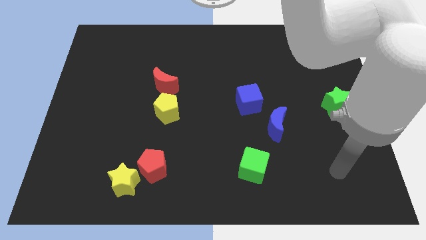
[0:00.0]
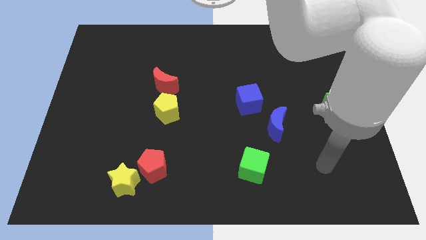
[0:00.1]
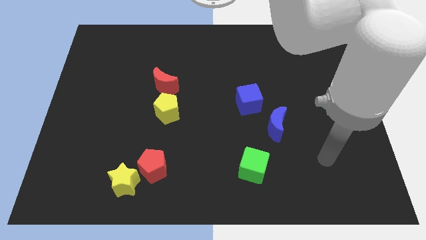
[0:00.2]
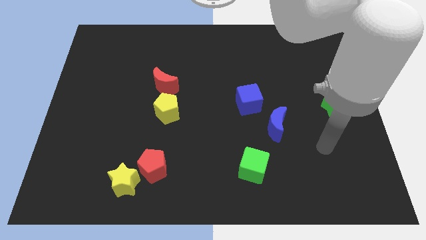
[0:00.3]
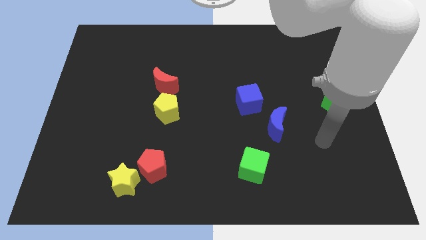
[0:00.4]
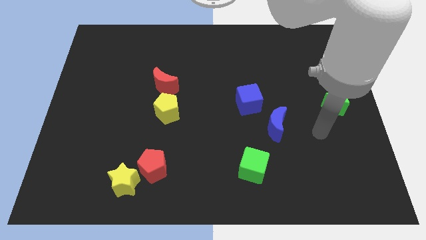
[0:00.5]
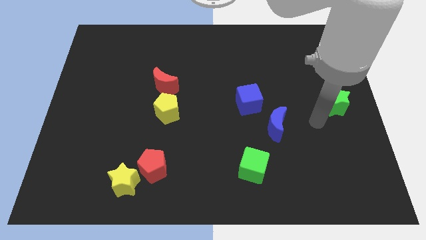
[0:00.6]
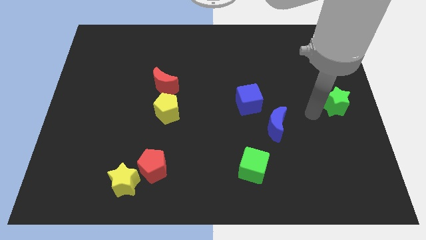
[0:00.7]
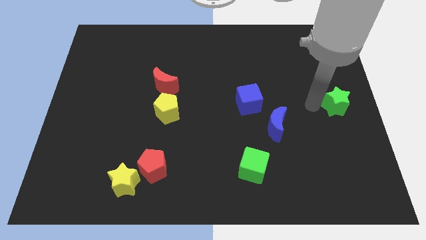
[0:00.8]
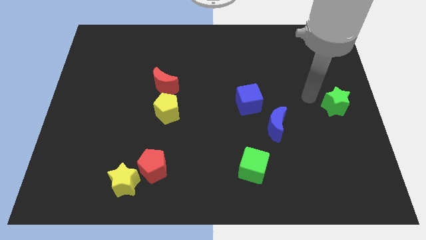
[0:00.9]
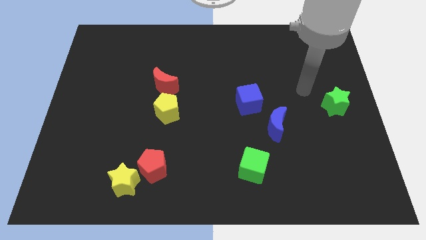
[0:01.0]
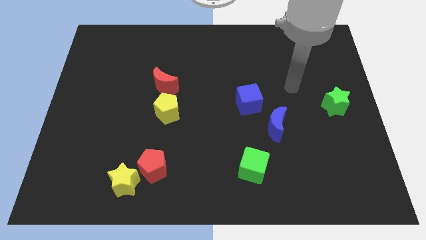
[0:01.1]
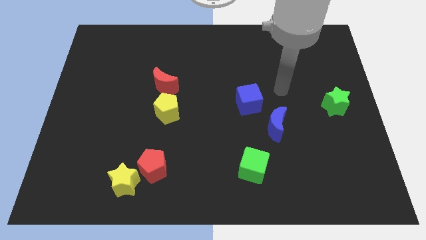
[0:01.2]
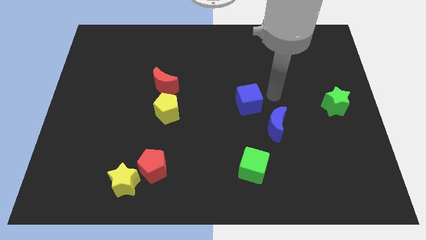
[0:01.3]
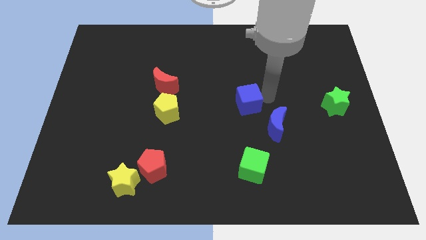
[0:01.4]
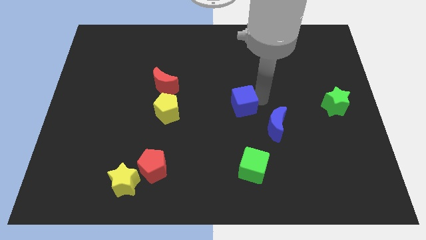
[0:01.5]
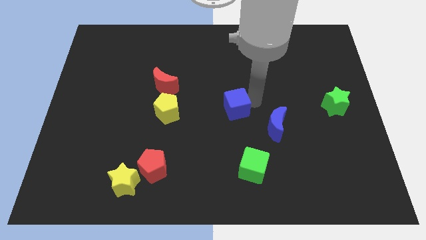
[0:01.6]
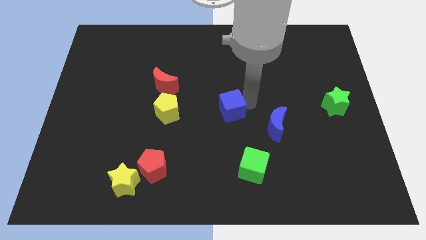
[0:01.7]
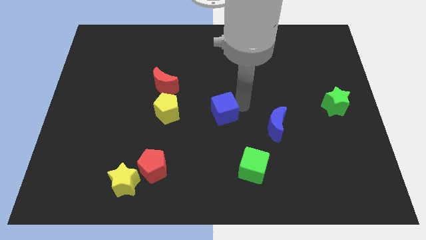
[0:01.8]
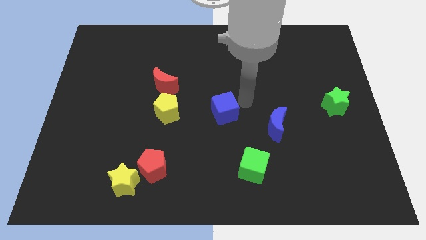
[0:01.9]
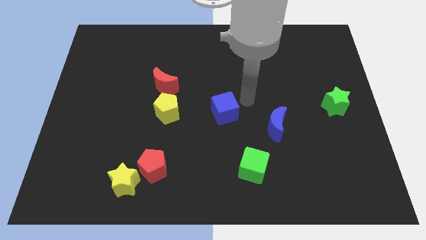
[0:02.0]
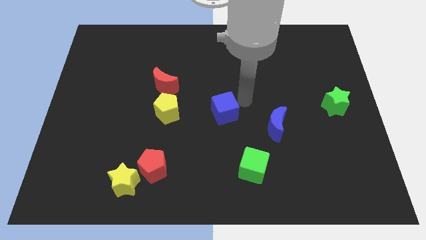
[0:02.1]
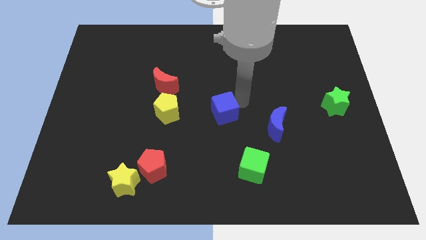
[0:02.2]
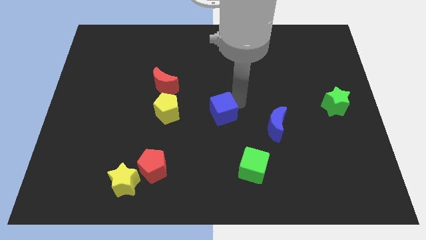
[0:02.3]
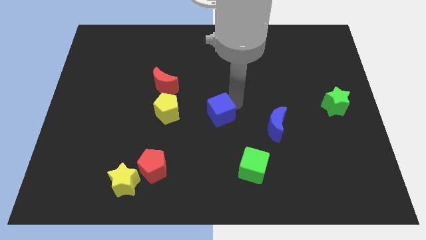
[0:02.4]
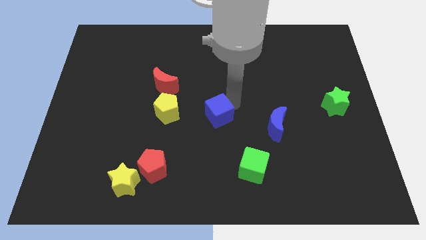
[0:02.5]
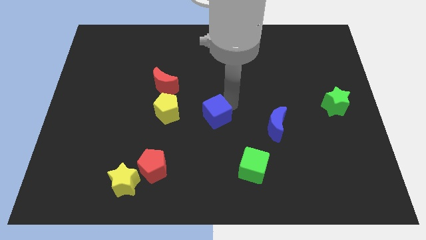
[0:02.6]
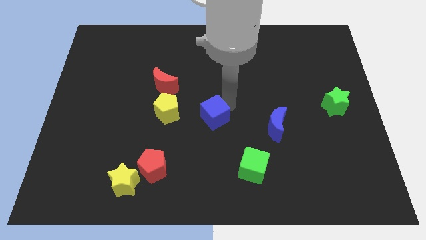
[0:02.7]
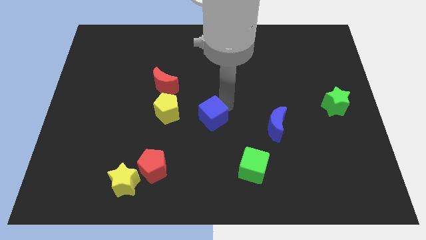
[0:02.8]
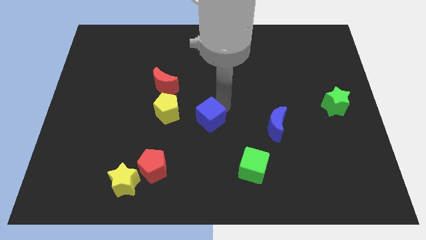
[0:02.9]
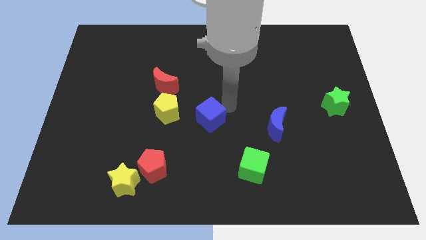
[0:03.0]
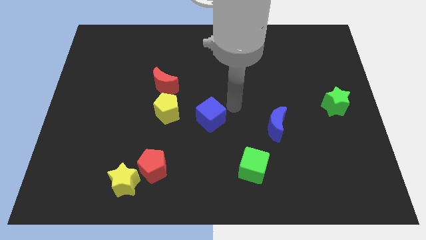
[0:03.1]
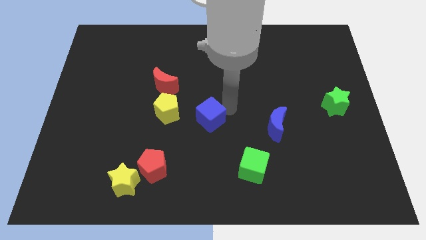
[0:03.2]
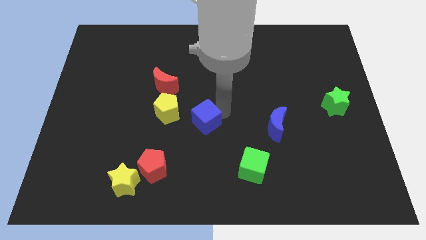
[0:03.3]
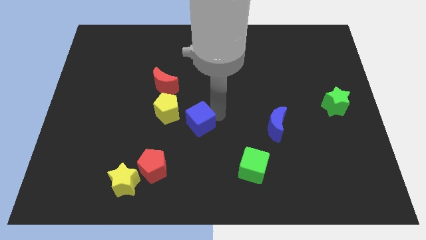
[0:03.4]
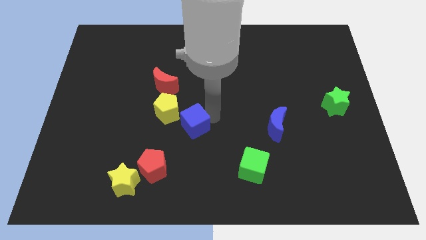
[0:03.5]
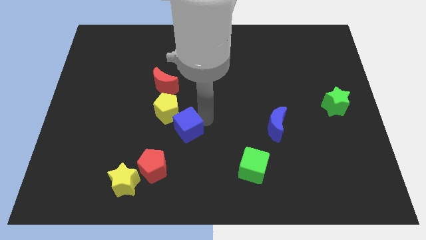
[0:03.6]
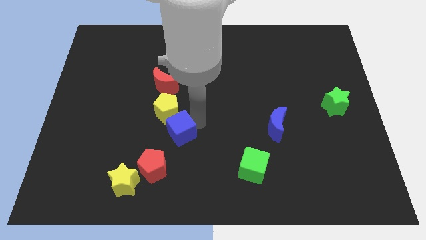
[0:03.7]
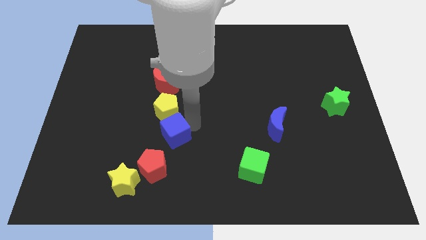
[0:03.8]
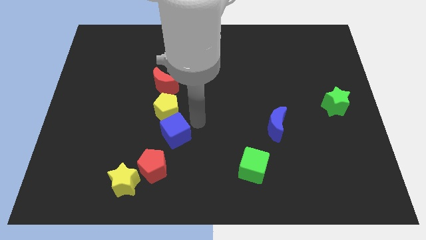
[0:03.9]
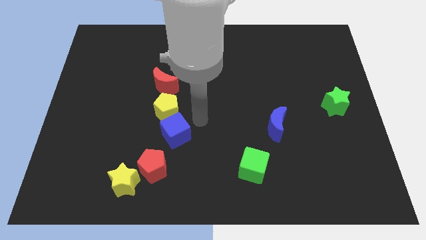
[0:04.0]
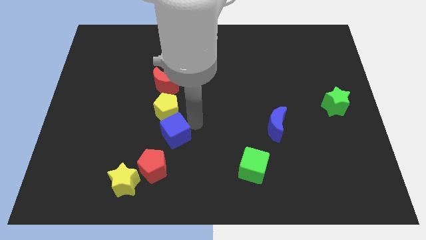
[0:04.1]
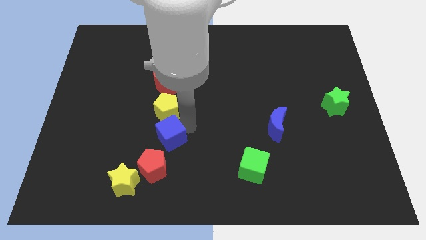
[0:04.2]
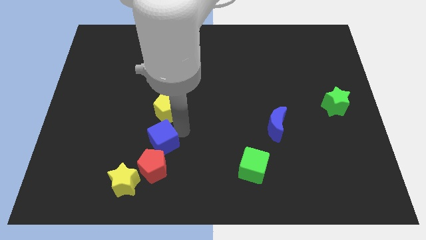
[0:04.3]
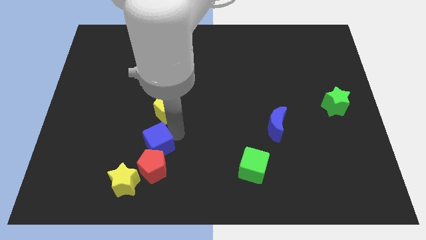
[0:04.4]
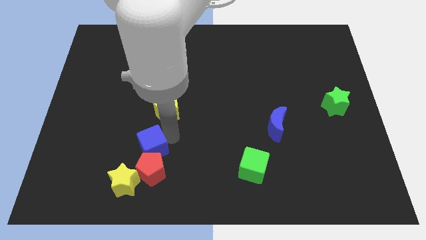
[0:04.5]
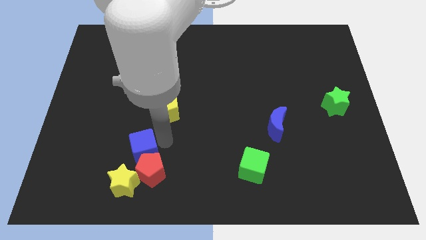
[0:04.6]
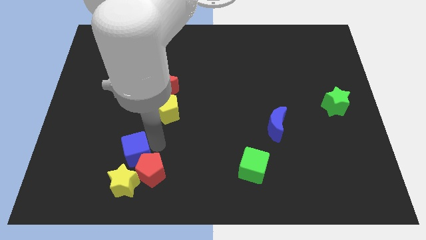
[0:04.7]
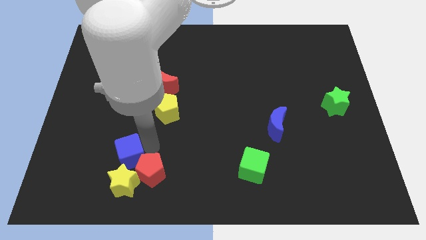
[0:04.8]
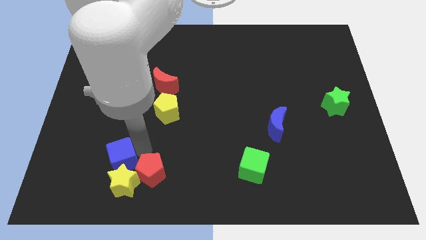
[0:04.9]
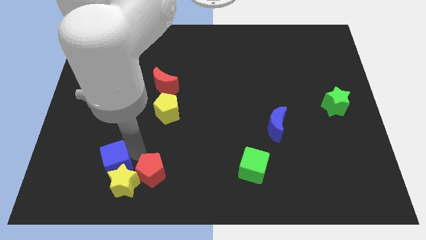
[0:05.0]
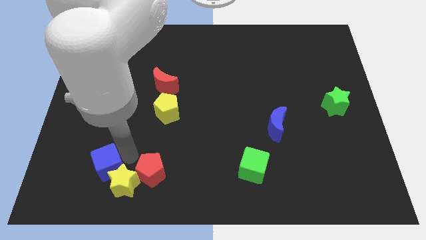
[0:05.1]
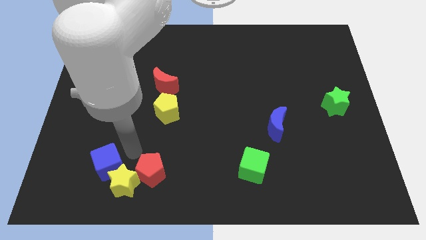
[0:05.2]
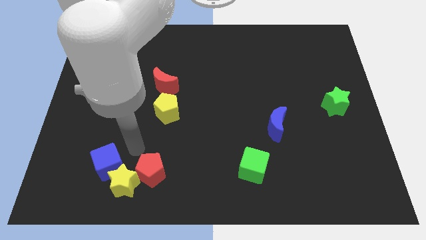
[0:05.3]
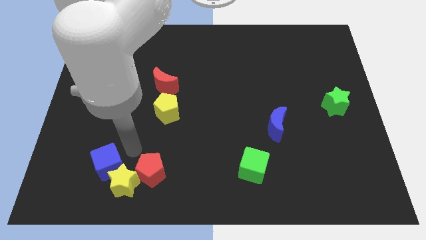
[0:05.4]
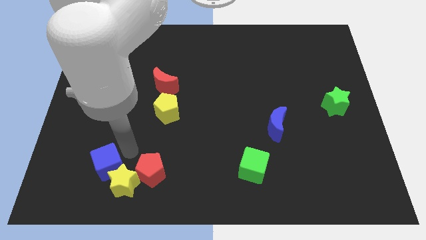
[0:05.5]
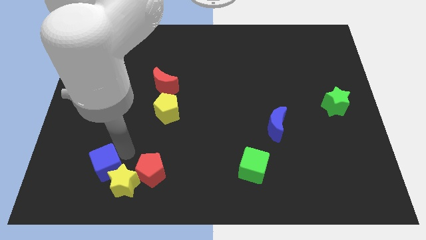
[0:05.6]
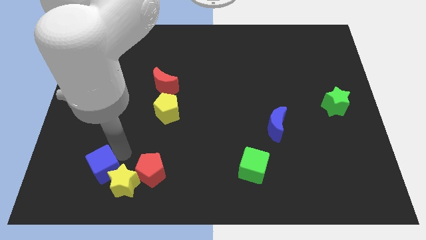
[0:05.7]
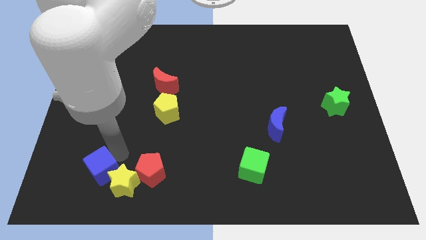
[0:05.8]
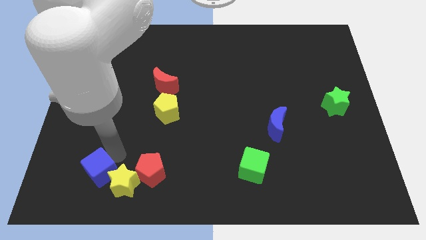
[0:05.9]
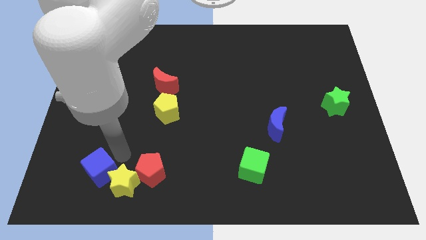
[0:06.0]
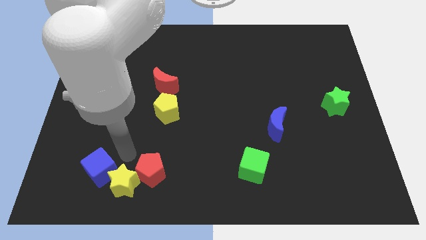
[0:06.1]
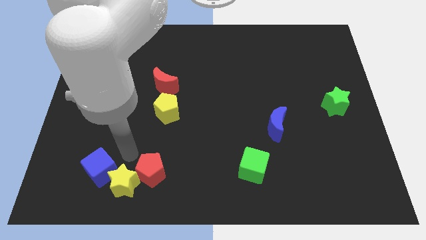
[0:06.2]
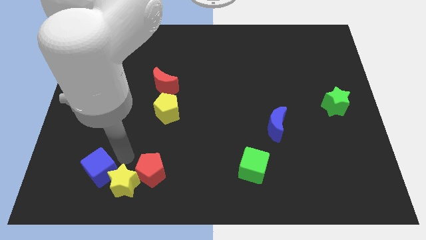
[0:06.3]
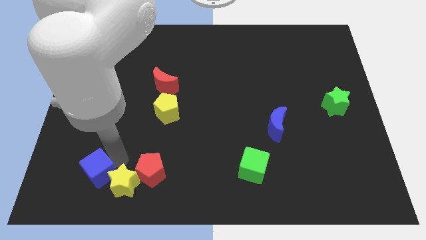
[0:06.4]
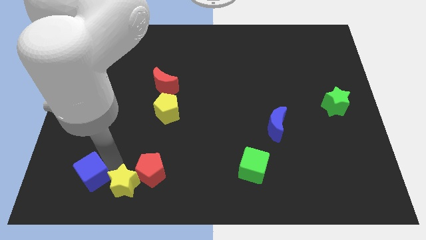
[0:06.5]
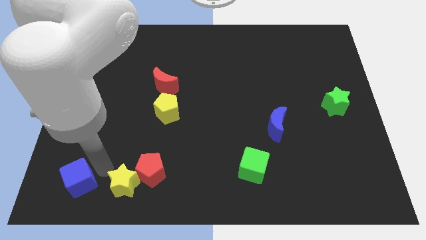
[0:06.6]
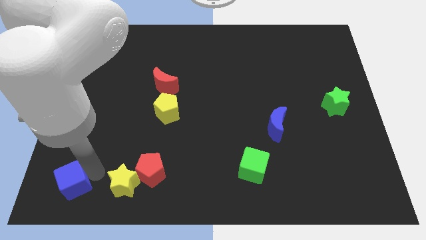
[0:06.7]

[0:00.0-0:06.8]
move the blue cube to the bottom left of the board
